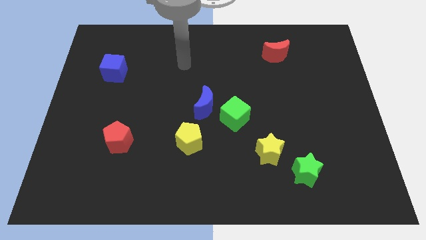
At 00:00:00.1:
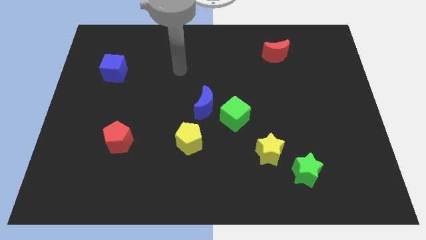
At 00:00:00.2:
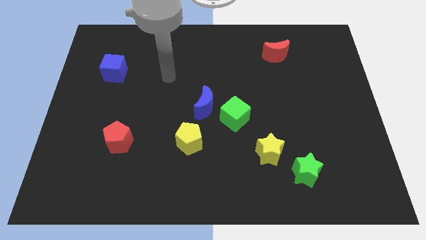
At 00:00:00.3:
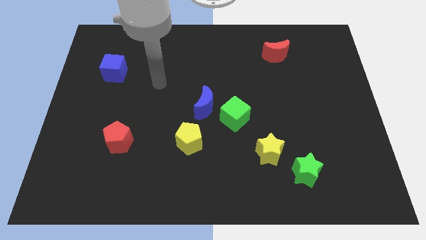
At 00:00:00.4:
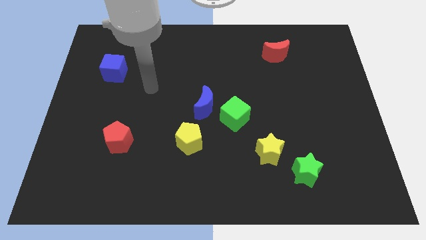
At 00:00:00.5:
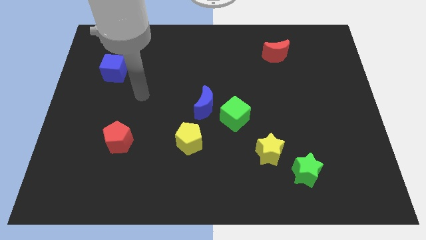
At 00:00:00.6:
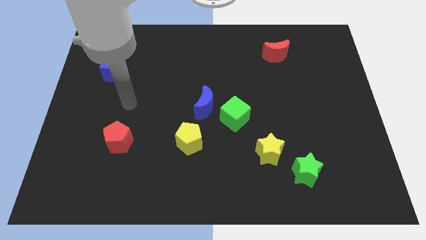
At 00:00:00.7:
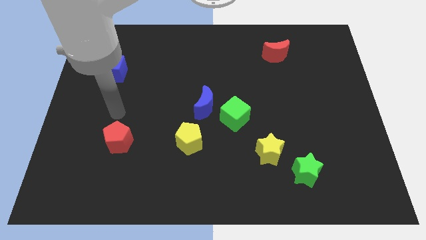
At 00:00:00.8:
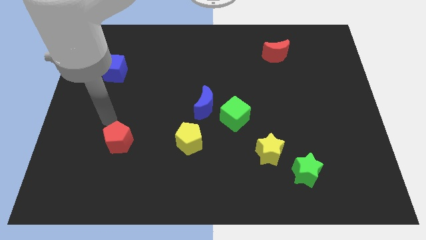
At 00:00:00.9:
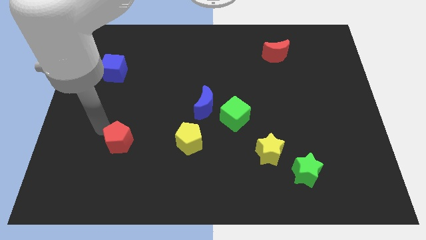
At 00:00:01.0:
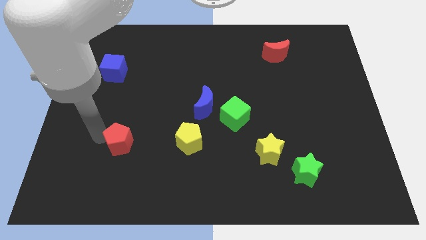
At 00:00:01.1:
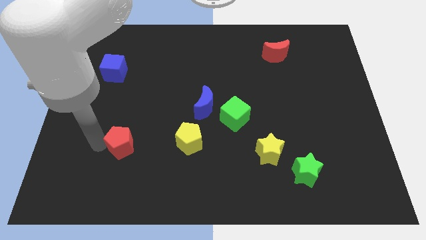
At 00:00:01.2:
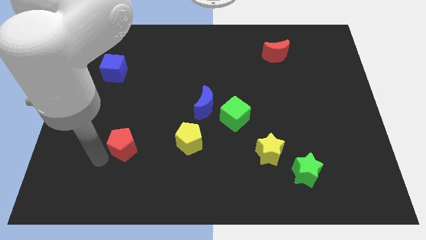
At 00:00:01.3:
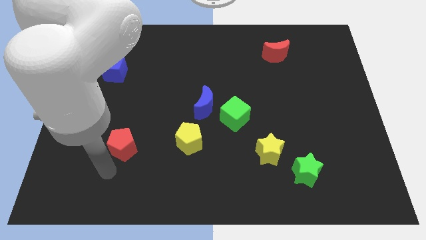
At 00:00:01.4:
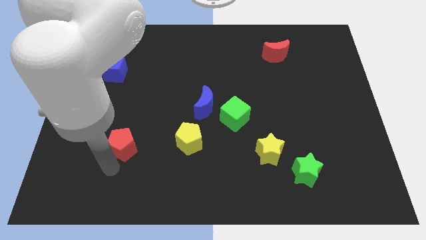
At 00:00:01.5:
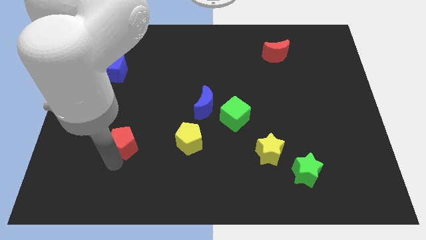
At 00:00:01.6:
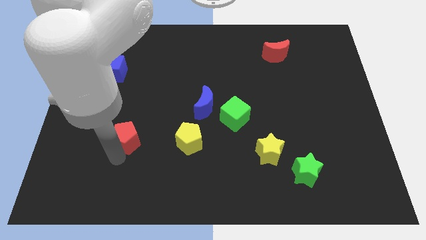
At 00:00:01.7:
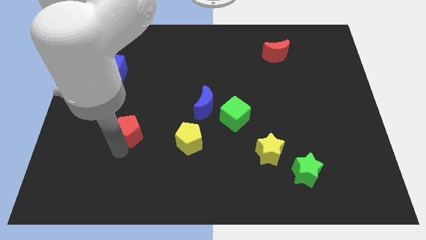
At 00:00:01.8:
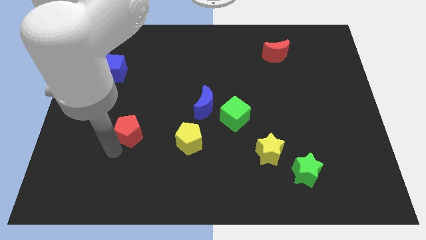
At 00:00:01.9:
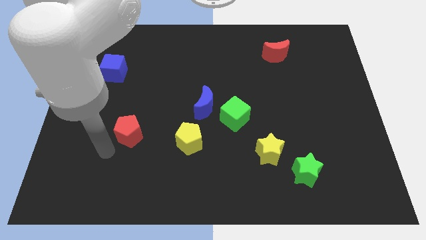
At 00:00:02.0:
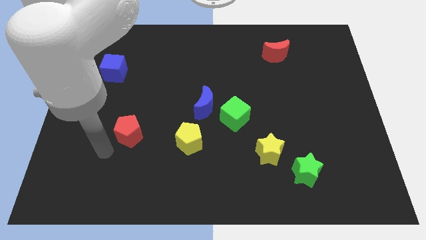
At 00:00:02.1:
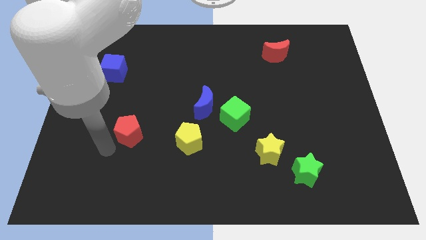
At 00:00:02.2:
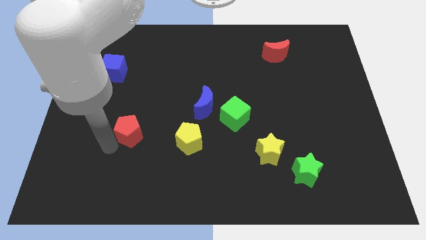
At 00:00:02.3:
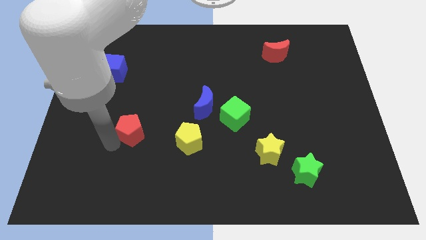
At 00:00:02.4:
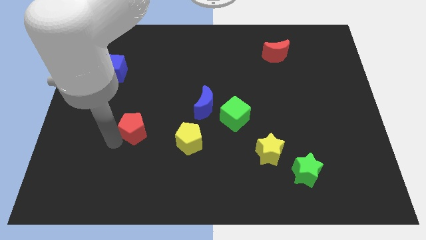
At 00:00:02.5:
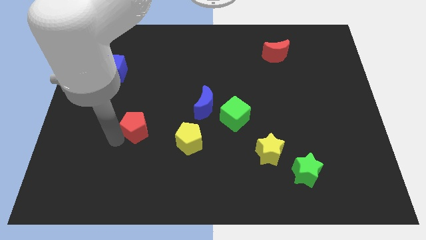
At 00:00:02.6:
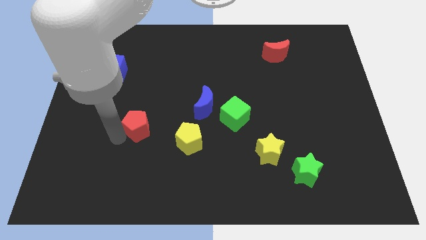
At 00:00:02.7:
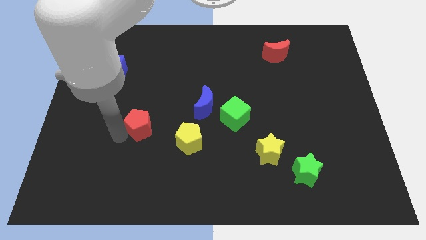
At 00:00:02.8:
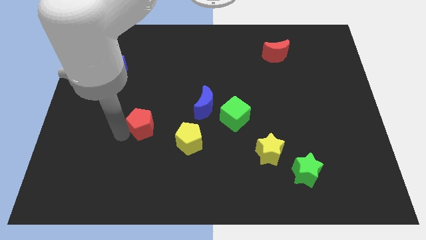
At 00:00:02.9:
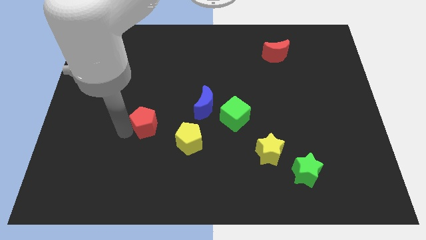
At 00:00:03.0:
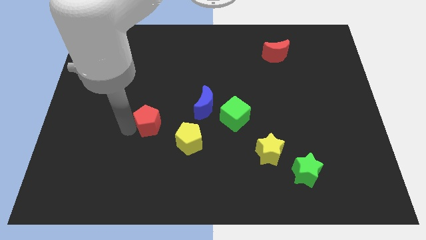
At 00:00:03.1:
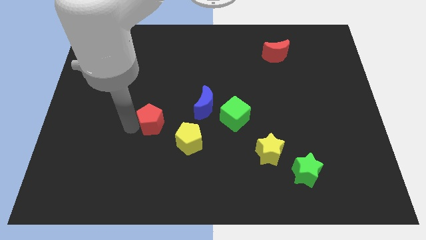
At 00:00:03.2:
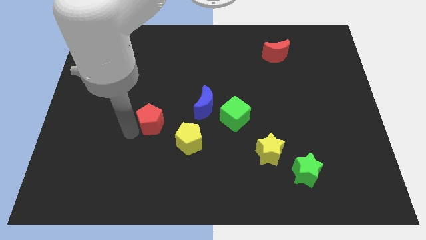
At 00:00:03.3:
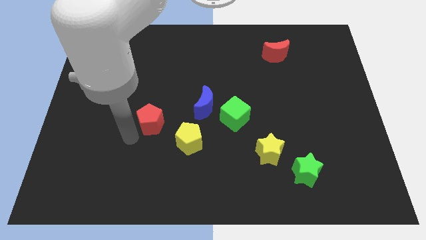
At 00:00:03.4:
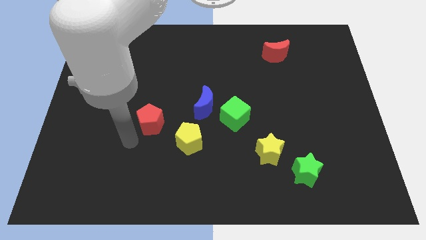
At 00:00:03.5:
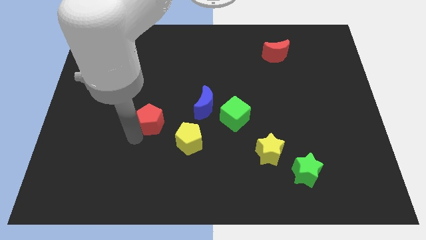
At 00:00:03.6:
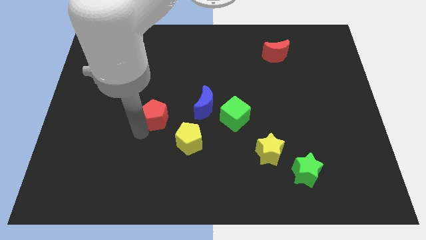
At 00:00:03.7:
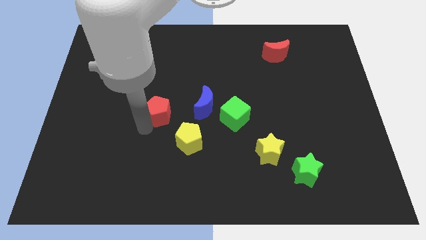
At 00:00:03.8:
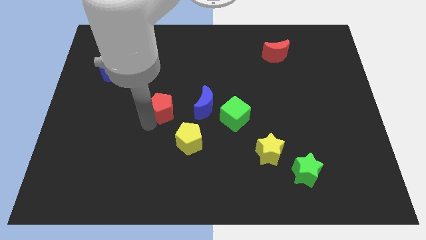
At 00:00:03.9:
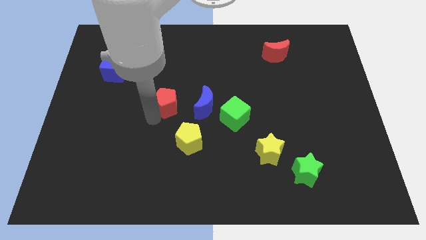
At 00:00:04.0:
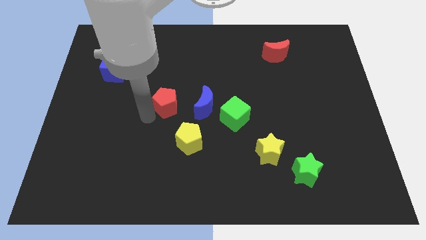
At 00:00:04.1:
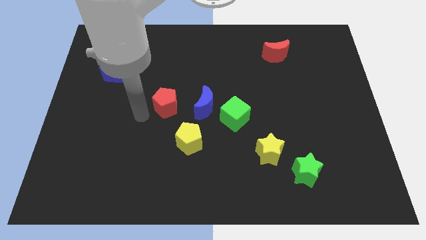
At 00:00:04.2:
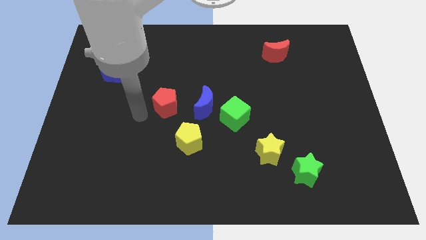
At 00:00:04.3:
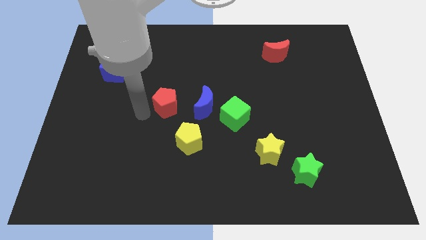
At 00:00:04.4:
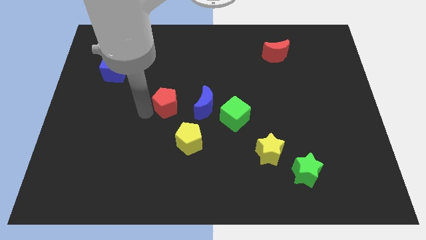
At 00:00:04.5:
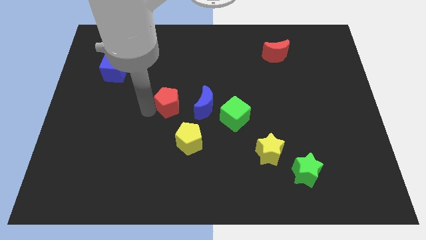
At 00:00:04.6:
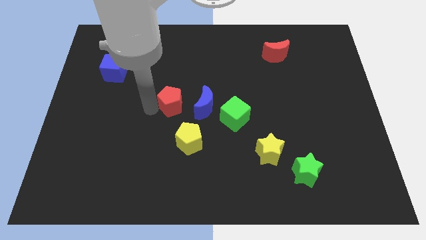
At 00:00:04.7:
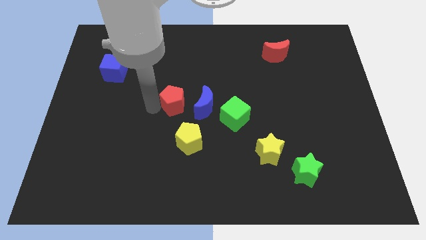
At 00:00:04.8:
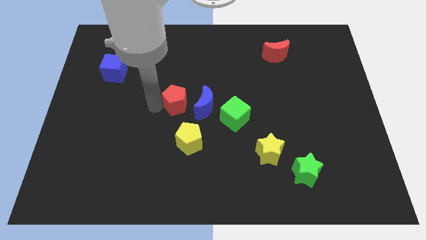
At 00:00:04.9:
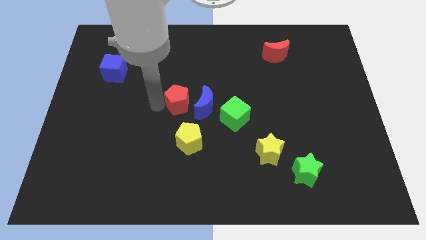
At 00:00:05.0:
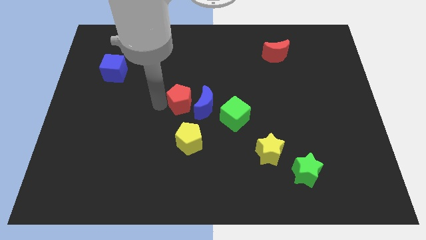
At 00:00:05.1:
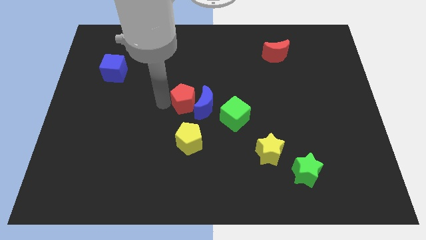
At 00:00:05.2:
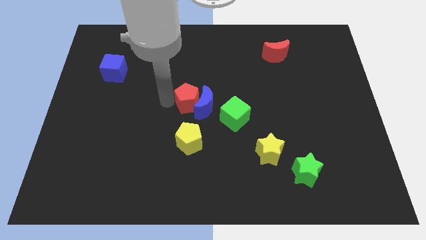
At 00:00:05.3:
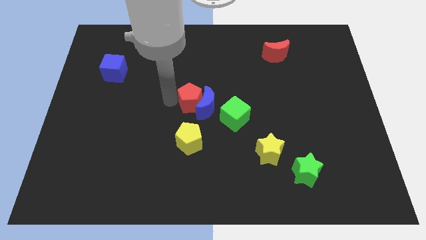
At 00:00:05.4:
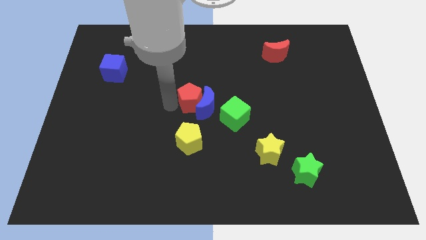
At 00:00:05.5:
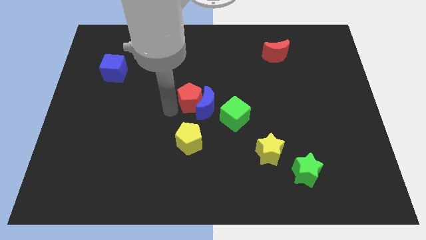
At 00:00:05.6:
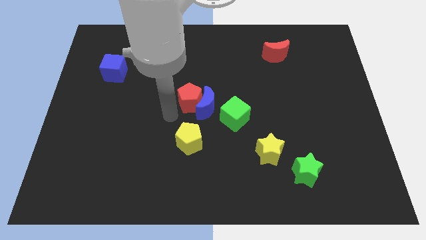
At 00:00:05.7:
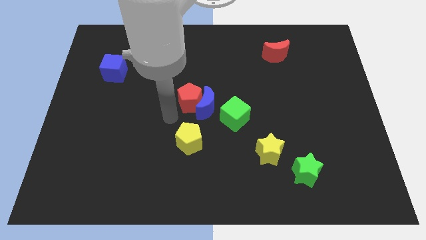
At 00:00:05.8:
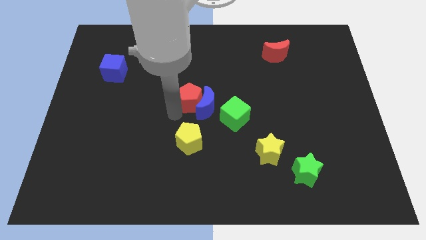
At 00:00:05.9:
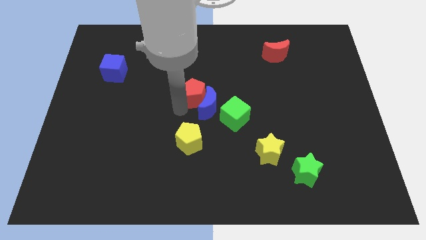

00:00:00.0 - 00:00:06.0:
push the red pentagon diagonally upwards and right

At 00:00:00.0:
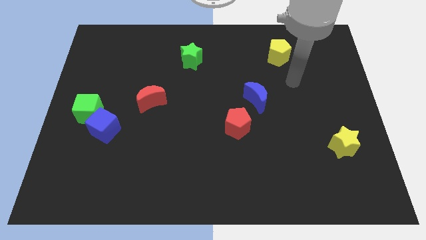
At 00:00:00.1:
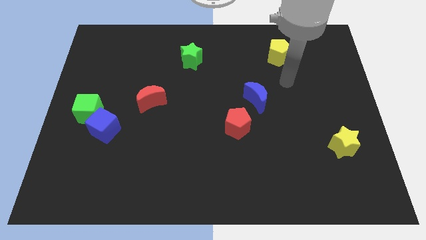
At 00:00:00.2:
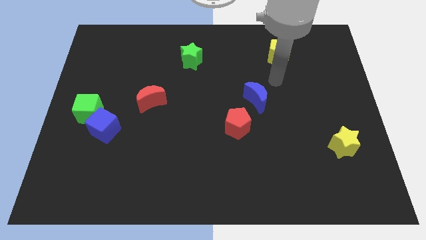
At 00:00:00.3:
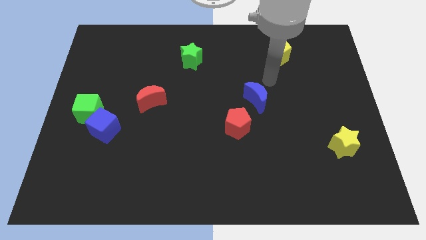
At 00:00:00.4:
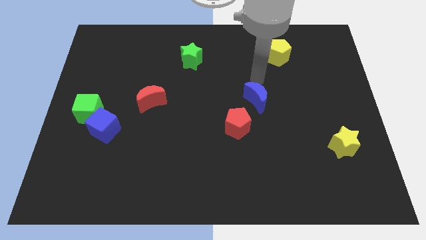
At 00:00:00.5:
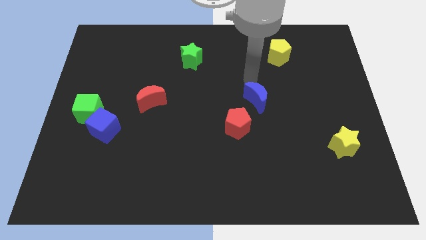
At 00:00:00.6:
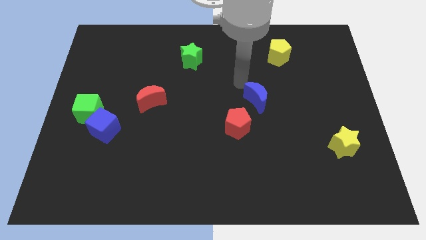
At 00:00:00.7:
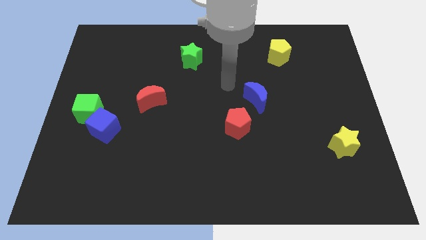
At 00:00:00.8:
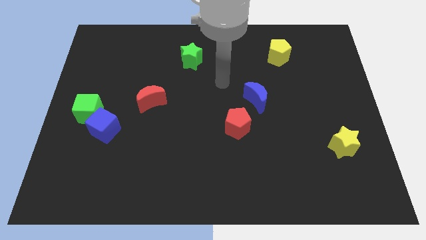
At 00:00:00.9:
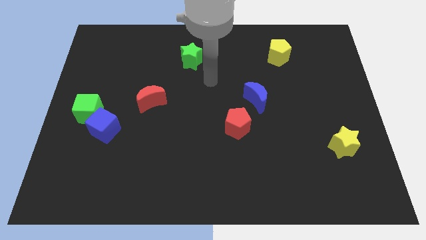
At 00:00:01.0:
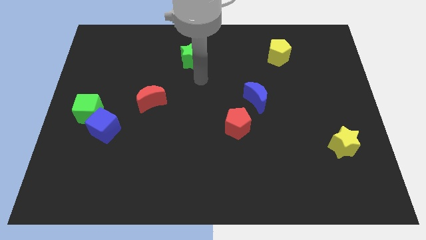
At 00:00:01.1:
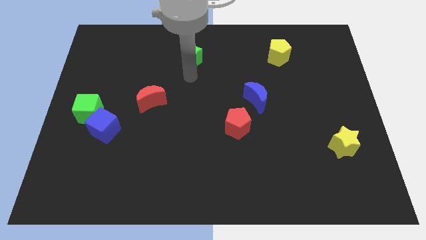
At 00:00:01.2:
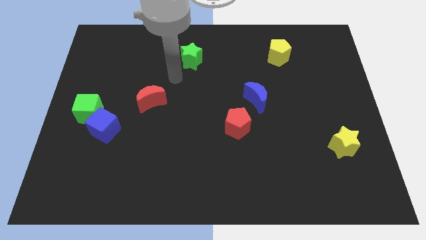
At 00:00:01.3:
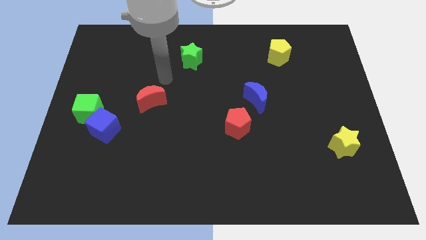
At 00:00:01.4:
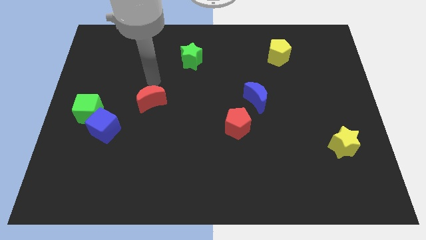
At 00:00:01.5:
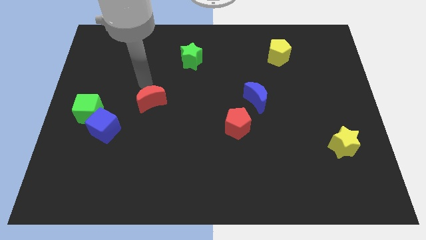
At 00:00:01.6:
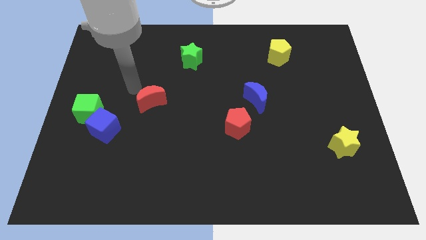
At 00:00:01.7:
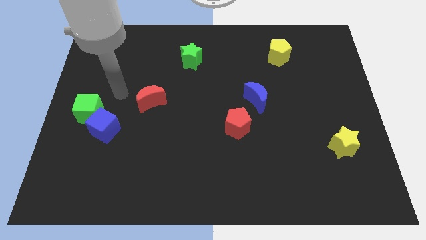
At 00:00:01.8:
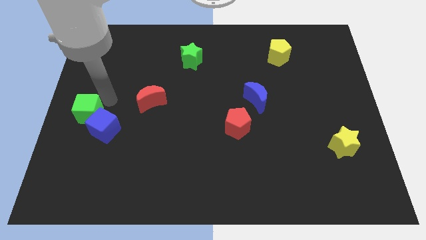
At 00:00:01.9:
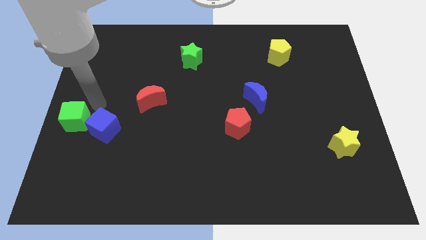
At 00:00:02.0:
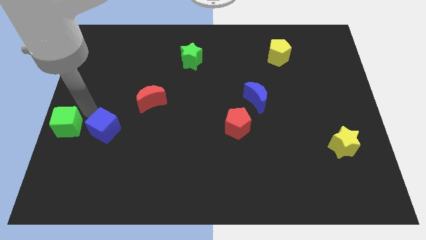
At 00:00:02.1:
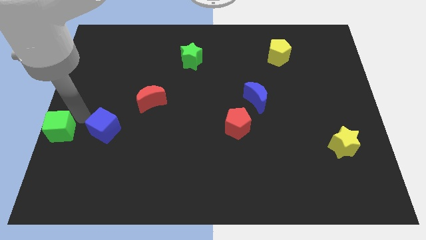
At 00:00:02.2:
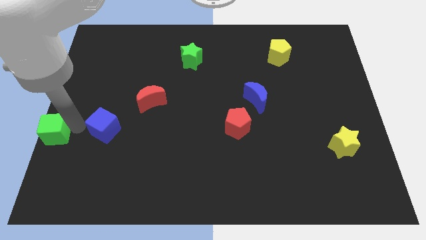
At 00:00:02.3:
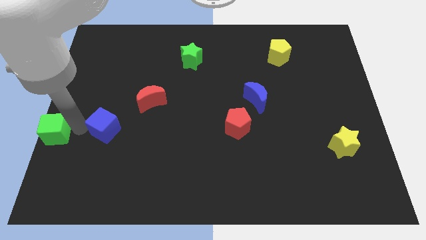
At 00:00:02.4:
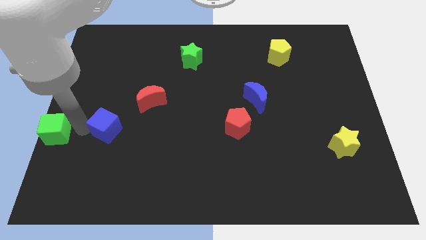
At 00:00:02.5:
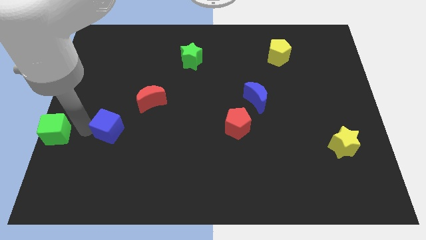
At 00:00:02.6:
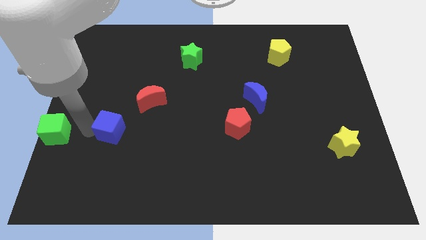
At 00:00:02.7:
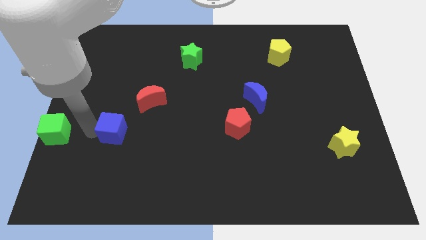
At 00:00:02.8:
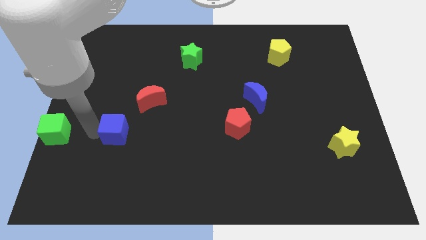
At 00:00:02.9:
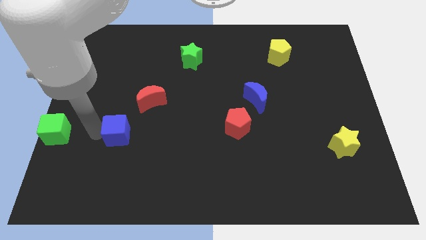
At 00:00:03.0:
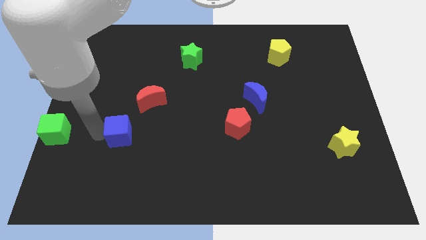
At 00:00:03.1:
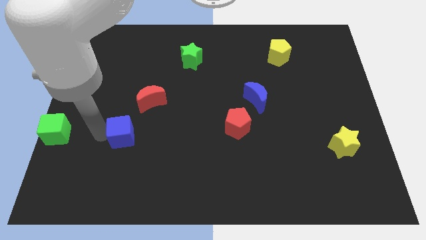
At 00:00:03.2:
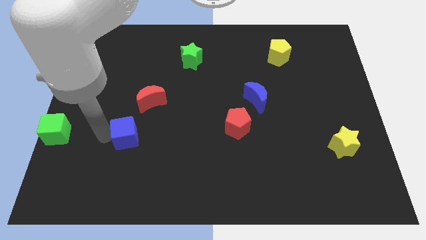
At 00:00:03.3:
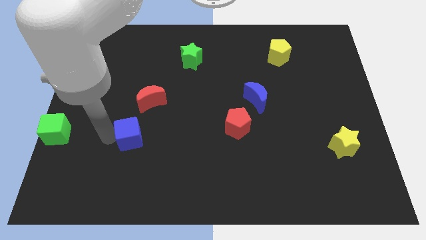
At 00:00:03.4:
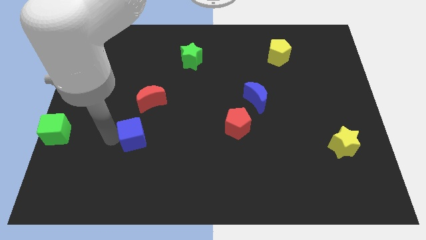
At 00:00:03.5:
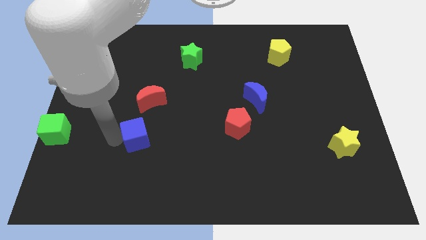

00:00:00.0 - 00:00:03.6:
slide the blue cube slightly right
